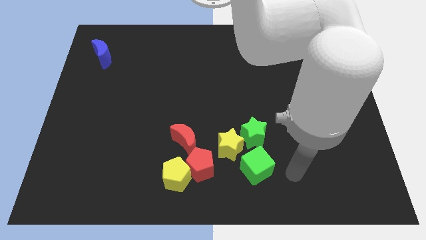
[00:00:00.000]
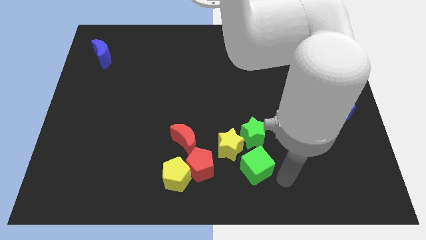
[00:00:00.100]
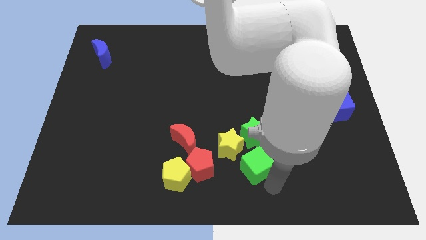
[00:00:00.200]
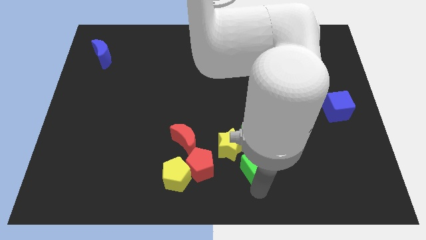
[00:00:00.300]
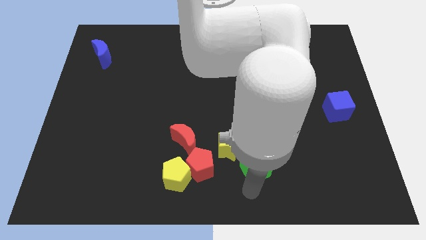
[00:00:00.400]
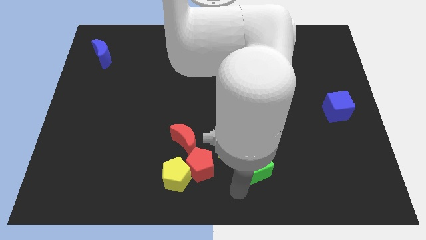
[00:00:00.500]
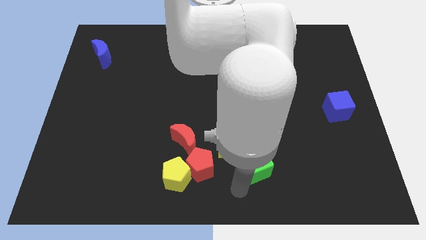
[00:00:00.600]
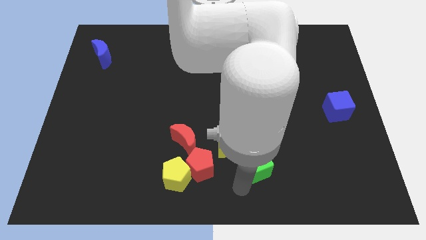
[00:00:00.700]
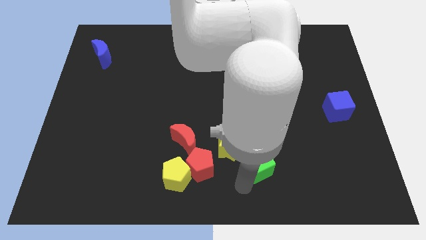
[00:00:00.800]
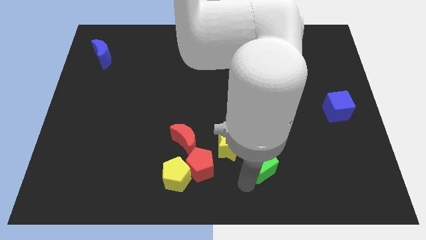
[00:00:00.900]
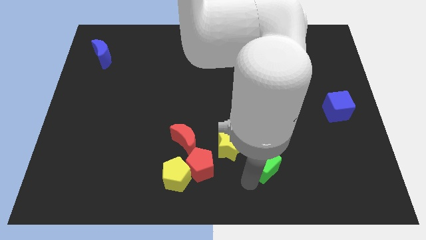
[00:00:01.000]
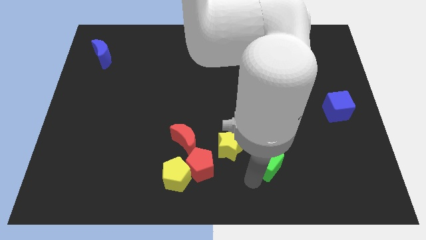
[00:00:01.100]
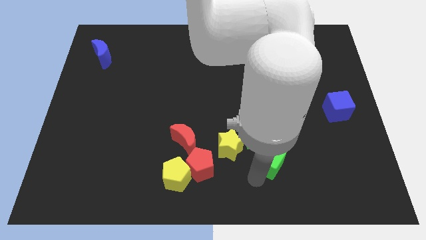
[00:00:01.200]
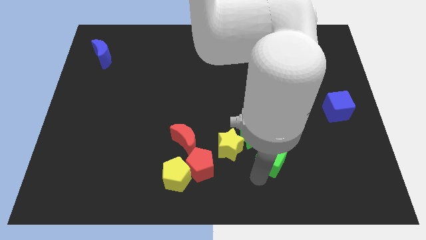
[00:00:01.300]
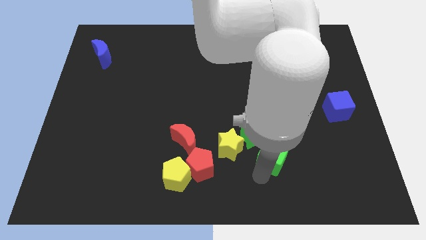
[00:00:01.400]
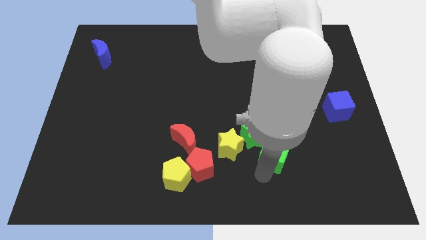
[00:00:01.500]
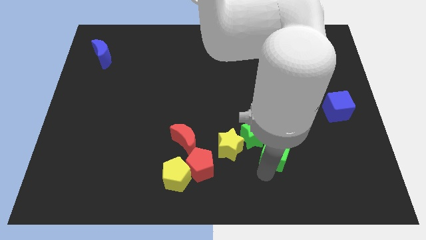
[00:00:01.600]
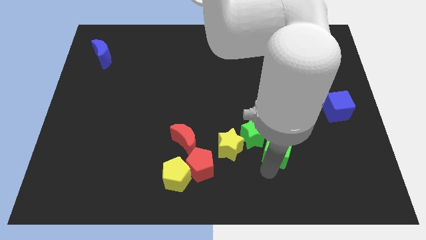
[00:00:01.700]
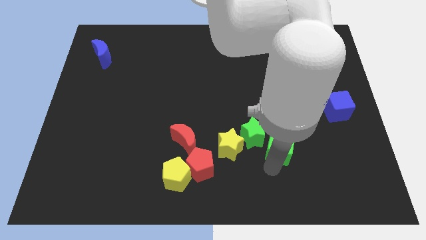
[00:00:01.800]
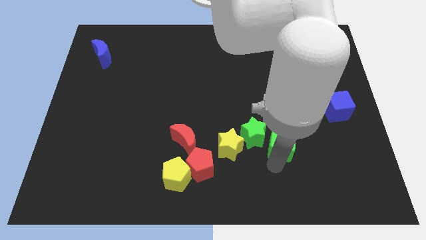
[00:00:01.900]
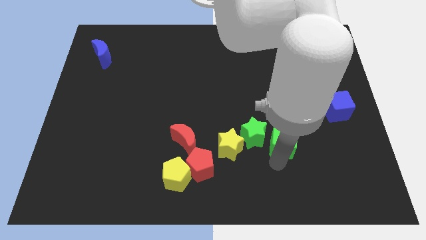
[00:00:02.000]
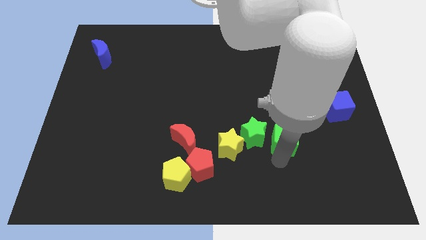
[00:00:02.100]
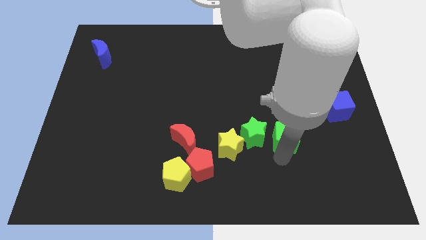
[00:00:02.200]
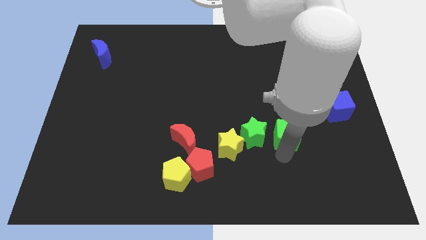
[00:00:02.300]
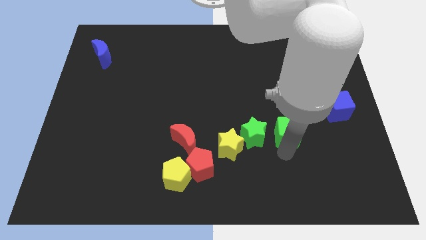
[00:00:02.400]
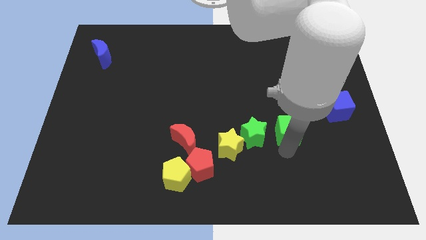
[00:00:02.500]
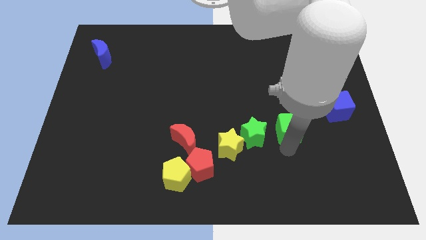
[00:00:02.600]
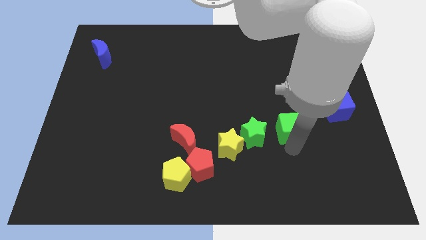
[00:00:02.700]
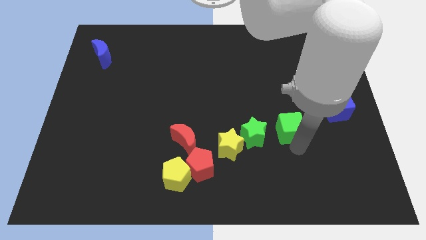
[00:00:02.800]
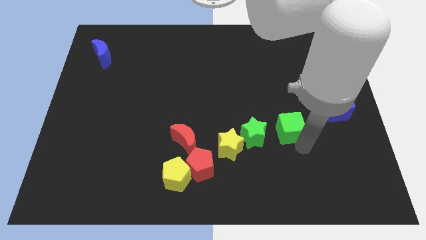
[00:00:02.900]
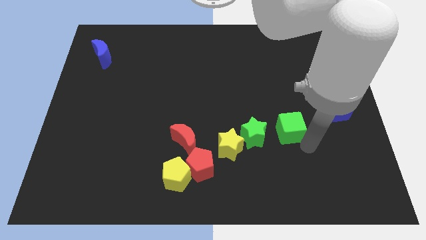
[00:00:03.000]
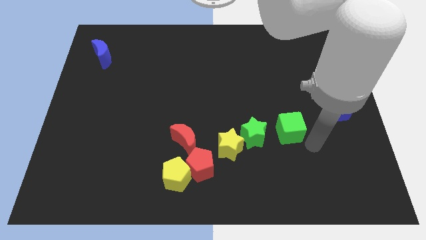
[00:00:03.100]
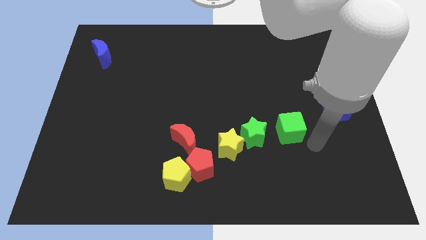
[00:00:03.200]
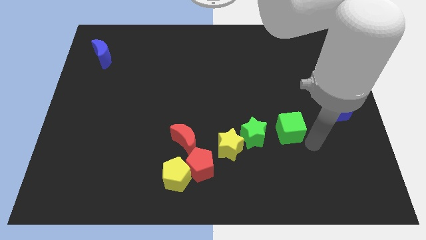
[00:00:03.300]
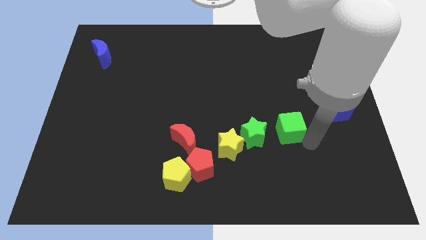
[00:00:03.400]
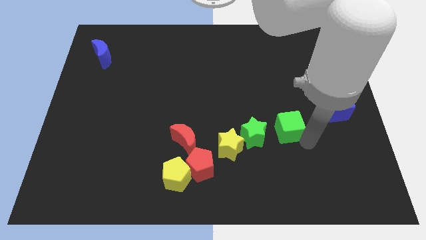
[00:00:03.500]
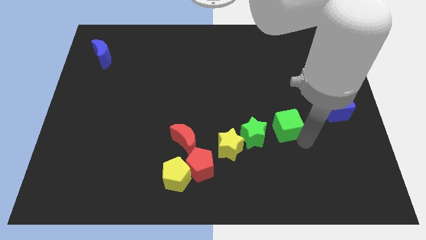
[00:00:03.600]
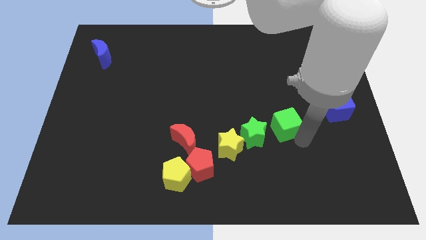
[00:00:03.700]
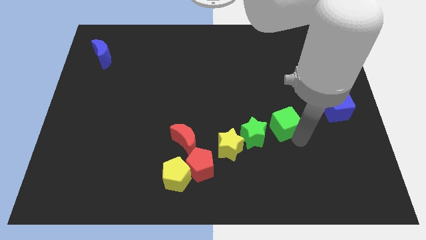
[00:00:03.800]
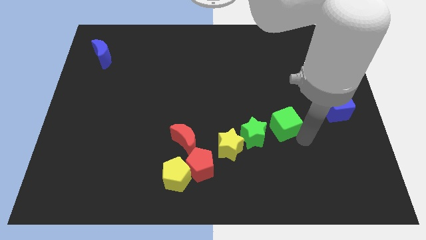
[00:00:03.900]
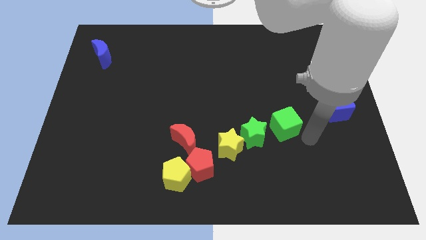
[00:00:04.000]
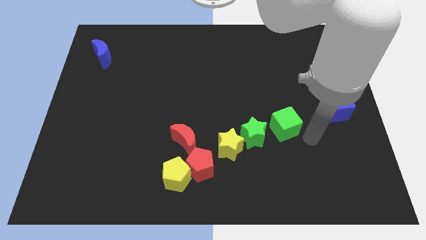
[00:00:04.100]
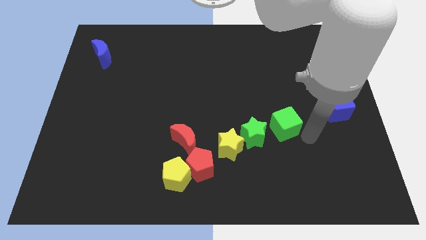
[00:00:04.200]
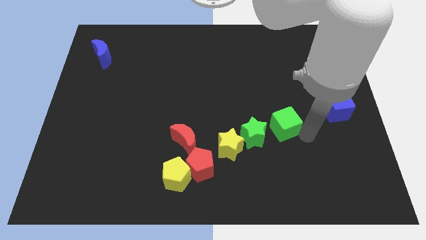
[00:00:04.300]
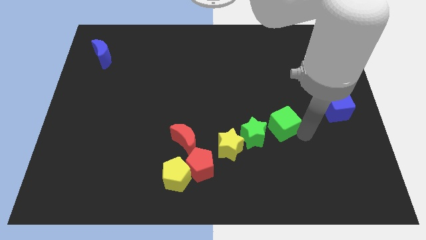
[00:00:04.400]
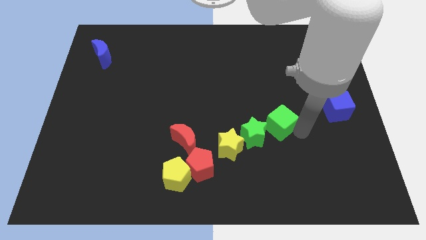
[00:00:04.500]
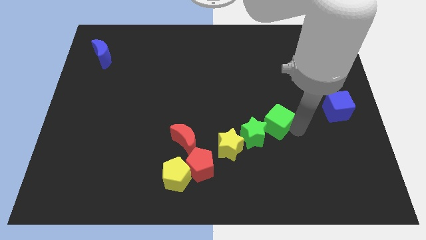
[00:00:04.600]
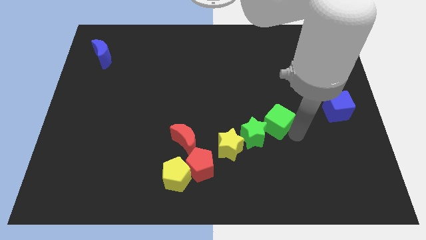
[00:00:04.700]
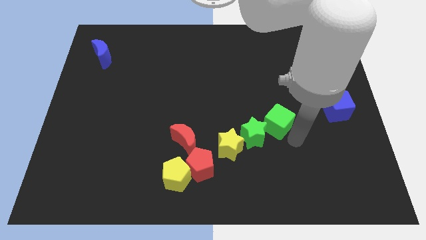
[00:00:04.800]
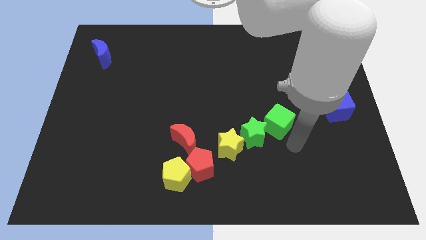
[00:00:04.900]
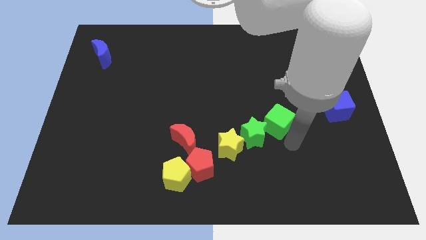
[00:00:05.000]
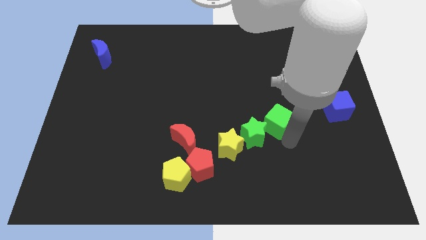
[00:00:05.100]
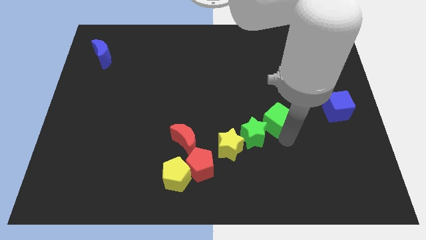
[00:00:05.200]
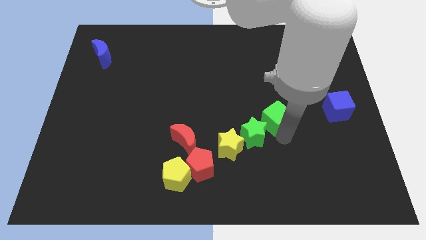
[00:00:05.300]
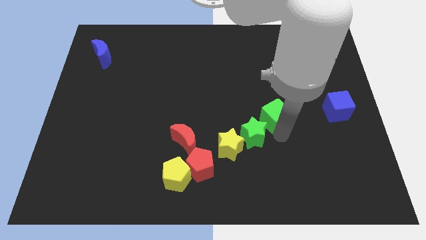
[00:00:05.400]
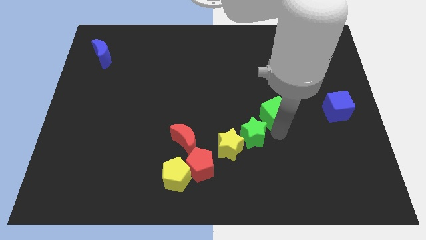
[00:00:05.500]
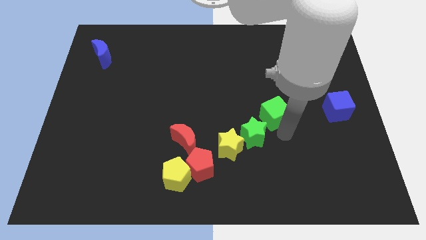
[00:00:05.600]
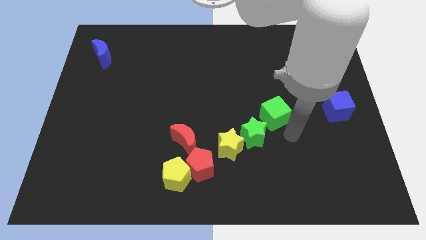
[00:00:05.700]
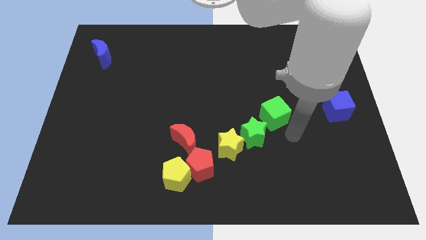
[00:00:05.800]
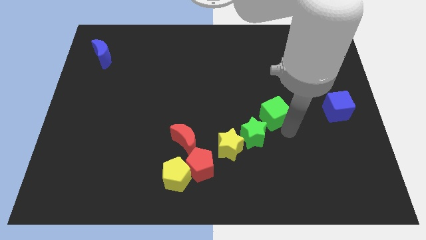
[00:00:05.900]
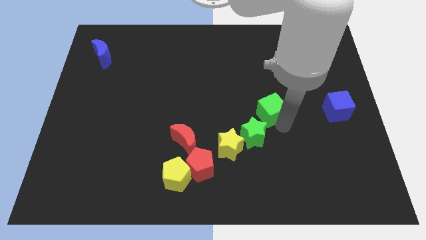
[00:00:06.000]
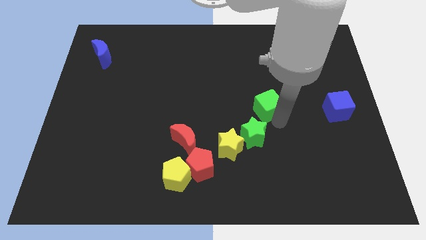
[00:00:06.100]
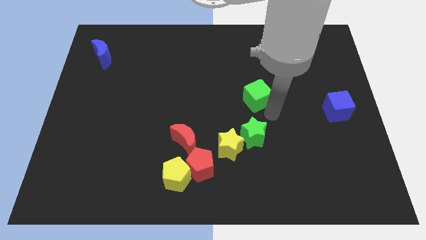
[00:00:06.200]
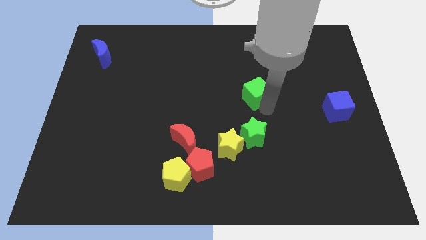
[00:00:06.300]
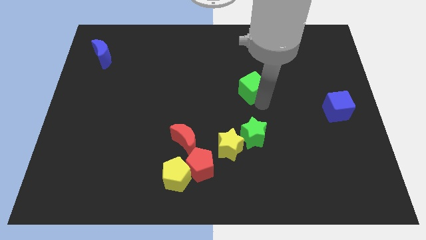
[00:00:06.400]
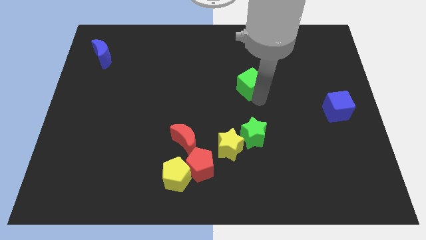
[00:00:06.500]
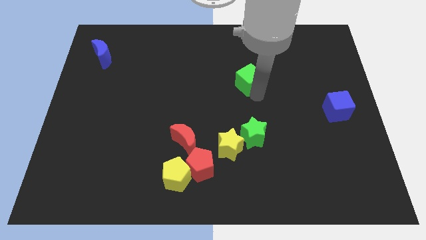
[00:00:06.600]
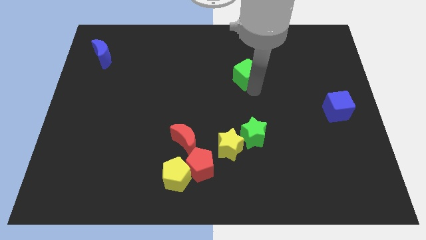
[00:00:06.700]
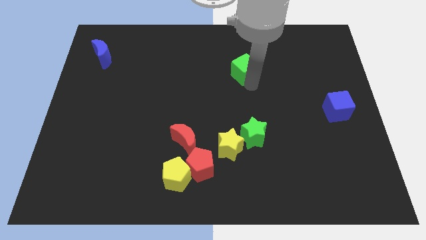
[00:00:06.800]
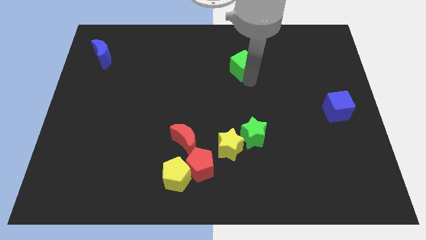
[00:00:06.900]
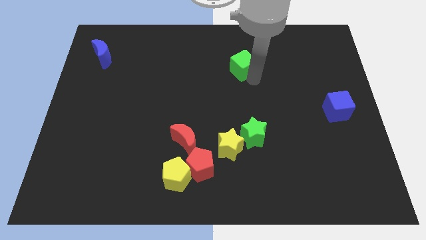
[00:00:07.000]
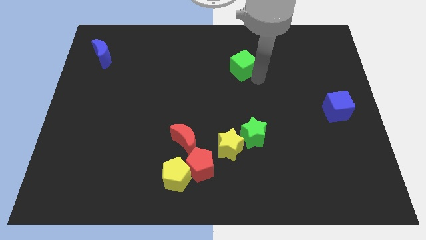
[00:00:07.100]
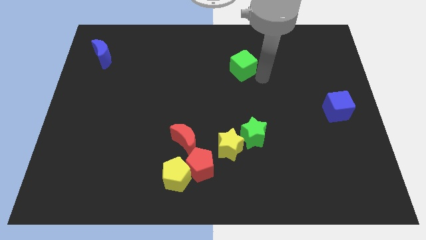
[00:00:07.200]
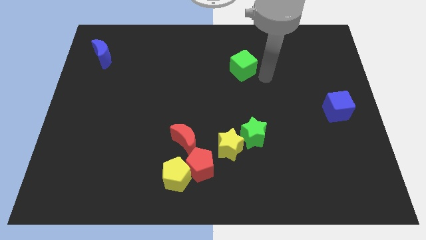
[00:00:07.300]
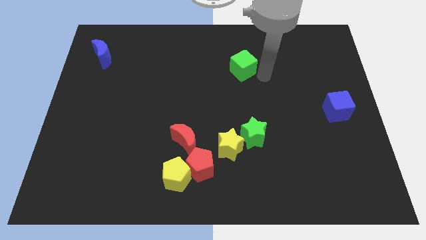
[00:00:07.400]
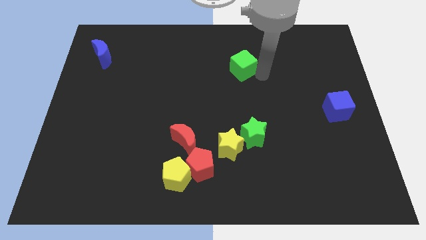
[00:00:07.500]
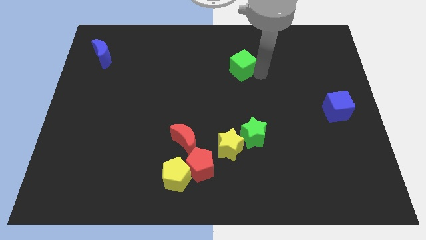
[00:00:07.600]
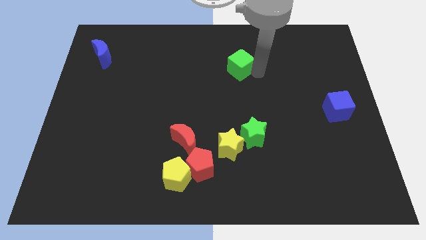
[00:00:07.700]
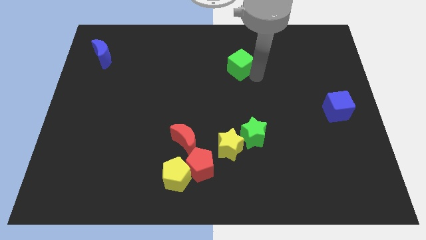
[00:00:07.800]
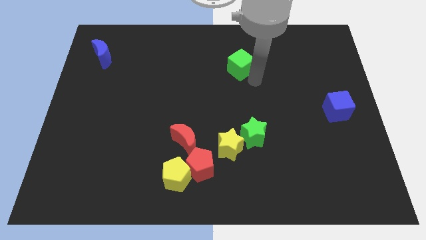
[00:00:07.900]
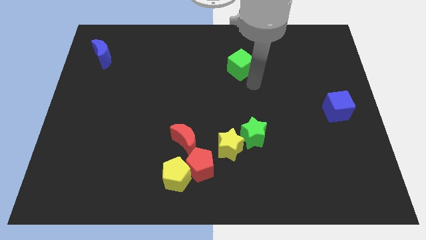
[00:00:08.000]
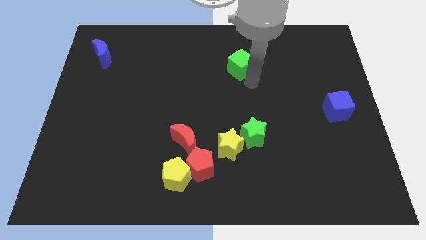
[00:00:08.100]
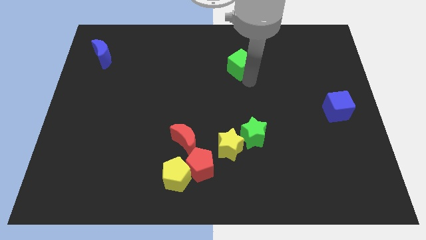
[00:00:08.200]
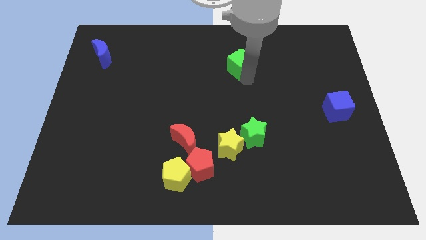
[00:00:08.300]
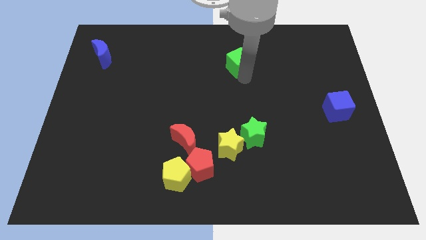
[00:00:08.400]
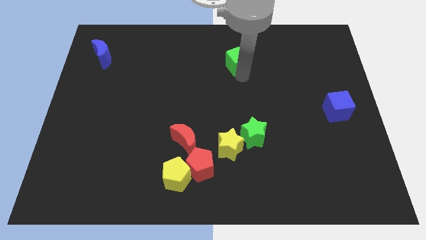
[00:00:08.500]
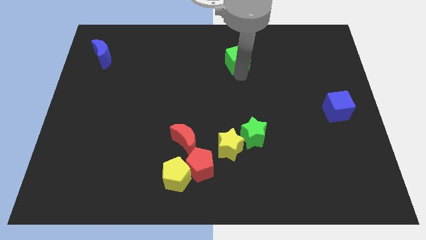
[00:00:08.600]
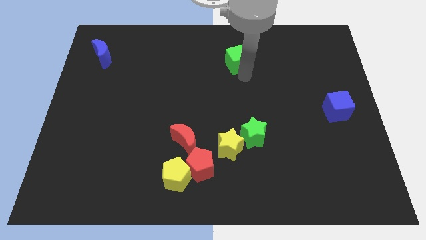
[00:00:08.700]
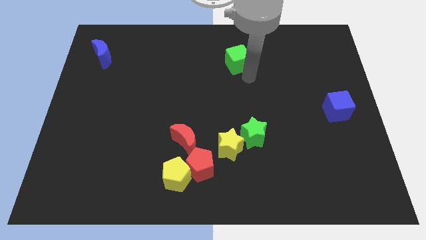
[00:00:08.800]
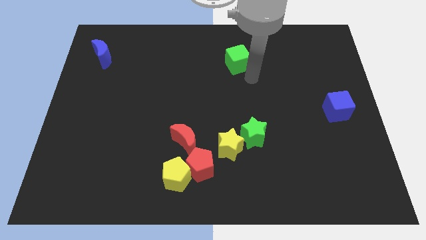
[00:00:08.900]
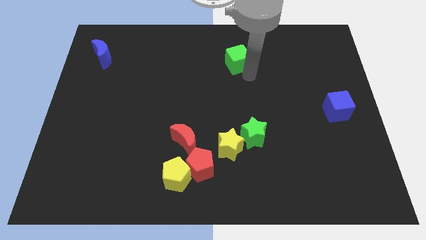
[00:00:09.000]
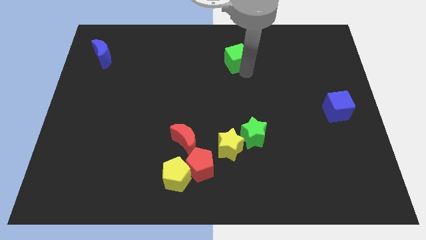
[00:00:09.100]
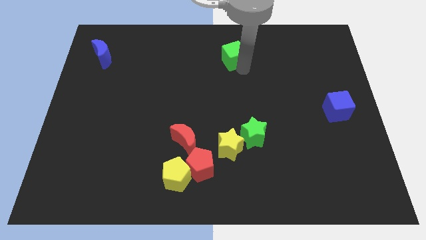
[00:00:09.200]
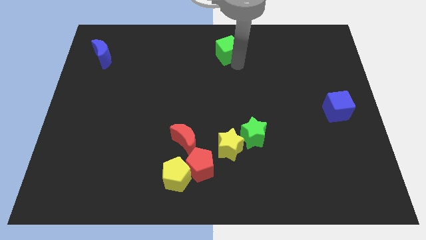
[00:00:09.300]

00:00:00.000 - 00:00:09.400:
push the green cube to the top side
